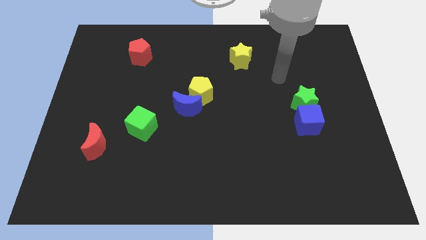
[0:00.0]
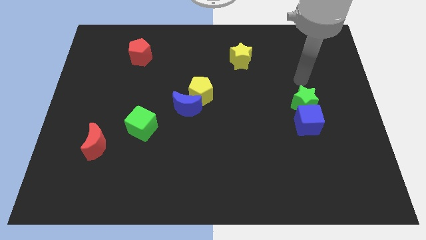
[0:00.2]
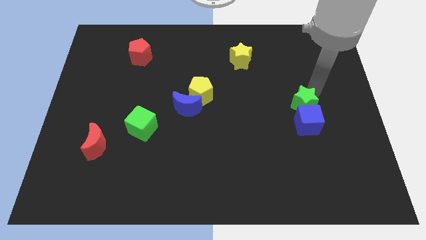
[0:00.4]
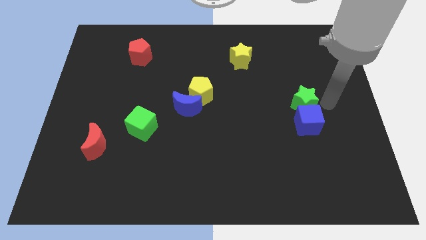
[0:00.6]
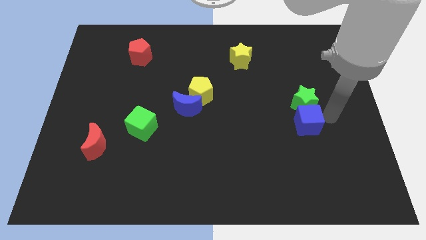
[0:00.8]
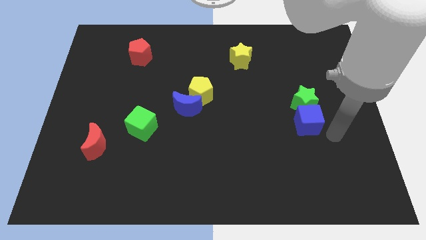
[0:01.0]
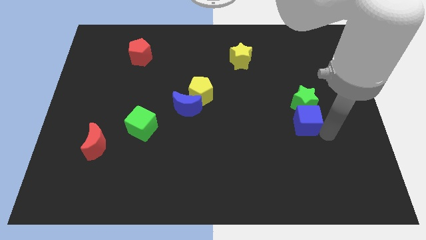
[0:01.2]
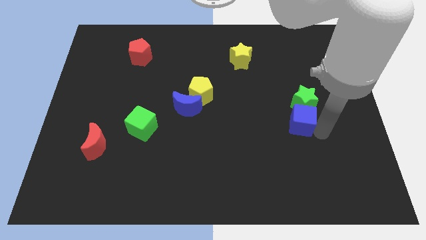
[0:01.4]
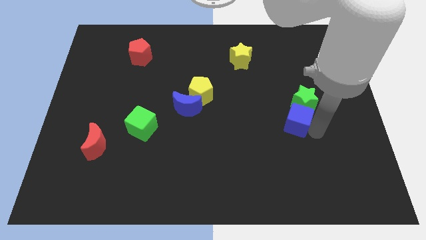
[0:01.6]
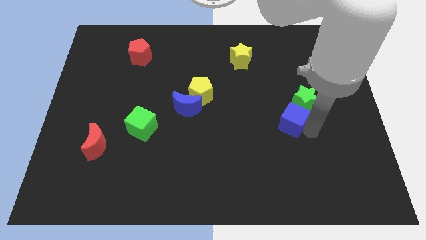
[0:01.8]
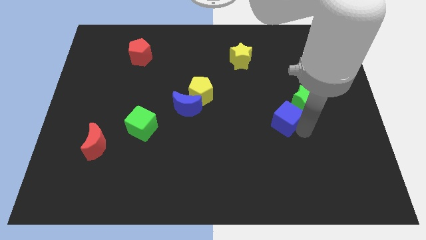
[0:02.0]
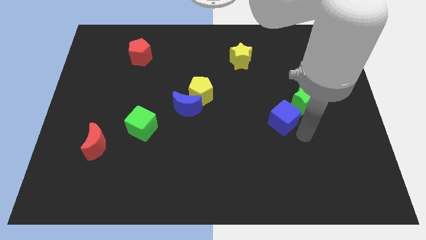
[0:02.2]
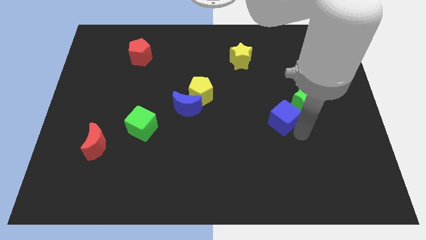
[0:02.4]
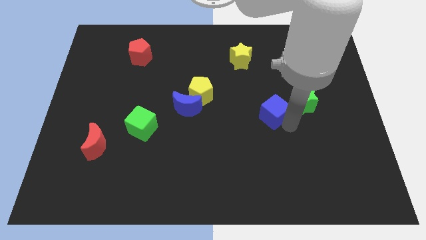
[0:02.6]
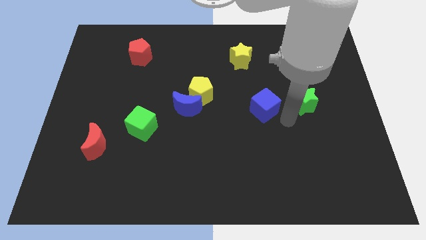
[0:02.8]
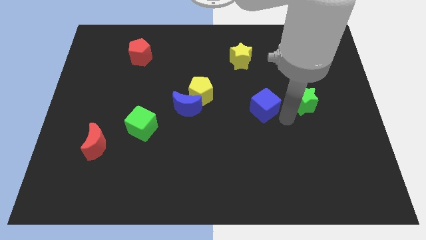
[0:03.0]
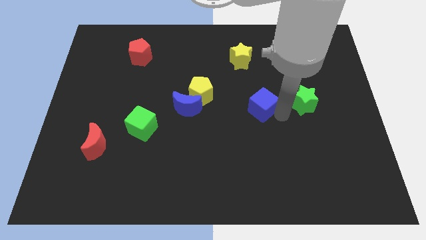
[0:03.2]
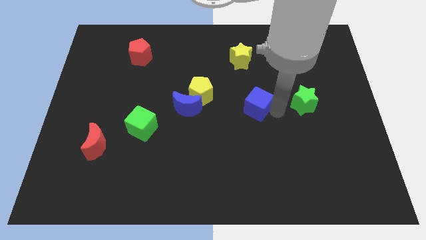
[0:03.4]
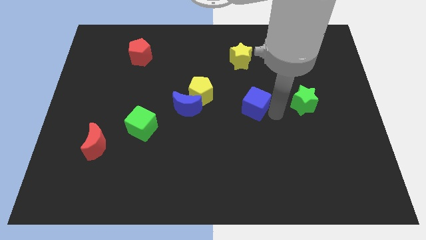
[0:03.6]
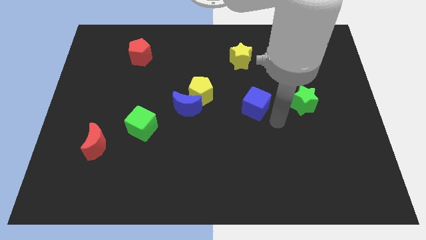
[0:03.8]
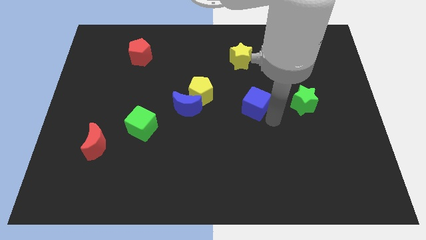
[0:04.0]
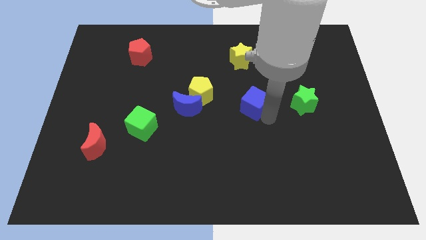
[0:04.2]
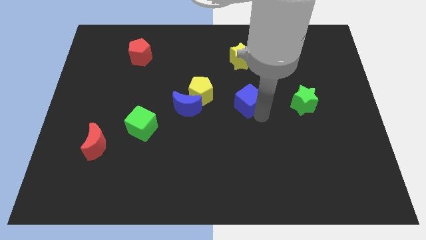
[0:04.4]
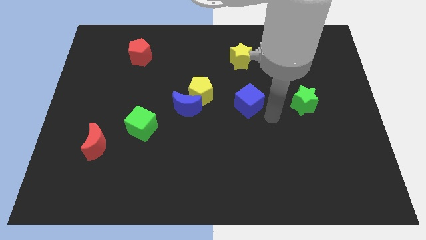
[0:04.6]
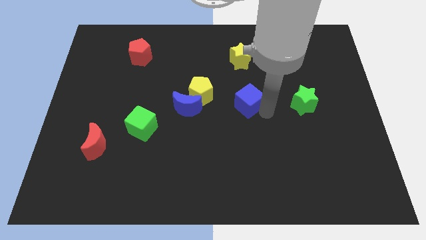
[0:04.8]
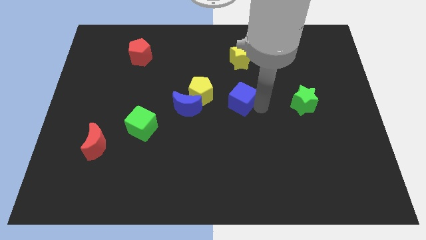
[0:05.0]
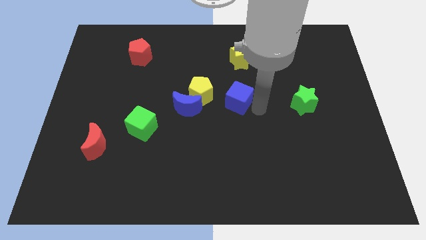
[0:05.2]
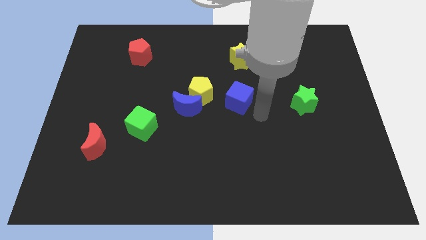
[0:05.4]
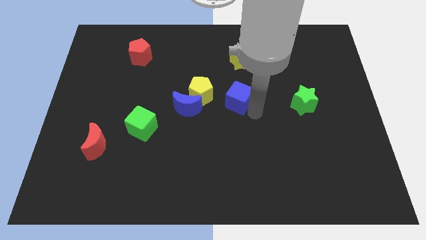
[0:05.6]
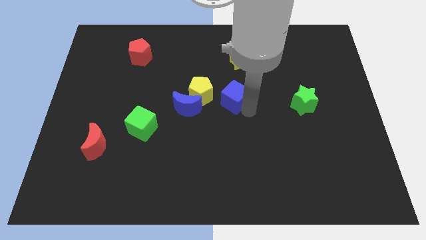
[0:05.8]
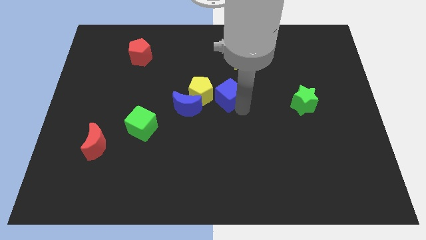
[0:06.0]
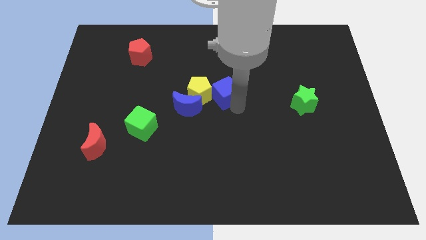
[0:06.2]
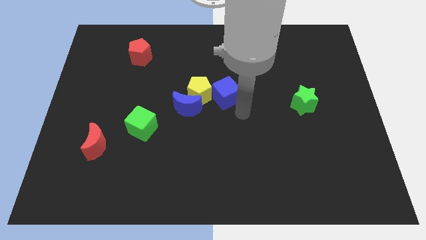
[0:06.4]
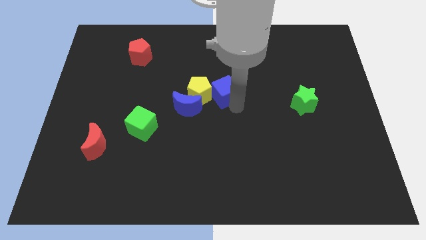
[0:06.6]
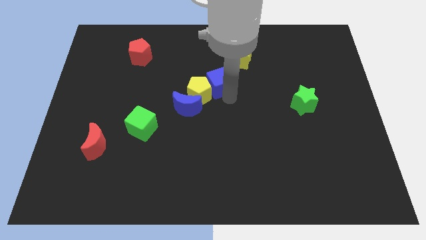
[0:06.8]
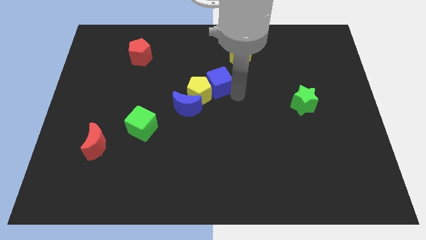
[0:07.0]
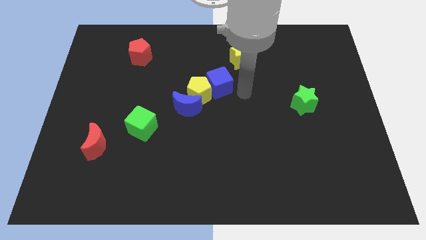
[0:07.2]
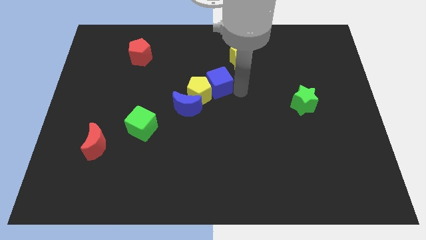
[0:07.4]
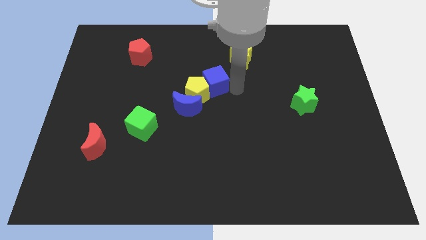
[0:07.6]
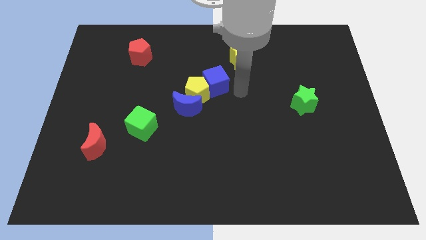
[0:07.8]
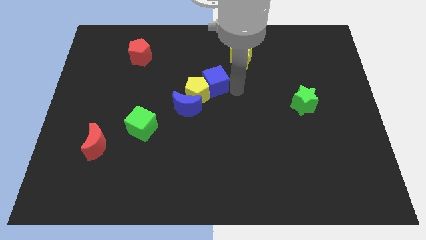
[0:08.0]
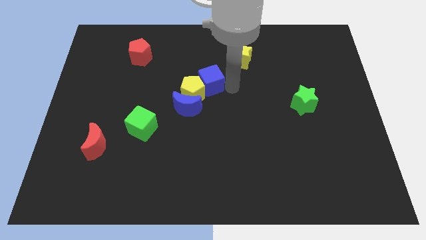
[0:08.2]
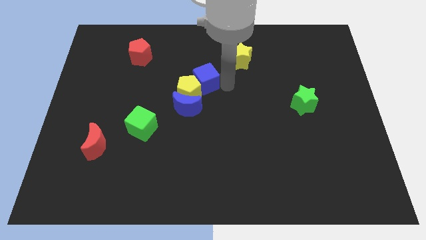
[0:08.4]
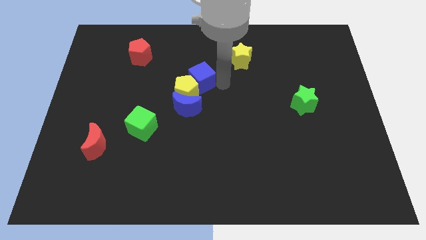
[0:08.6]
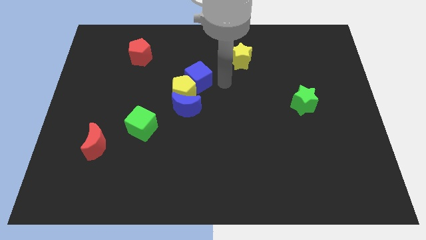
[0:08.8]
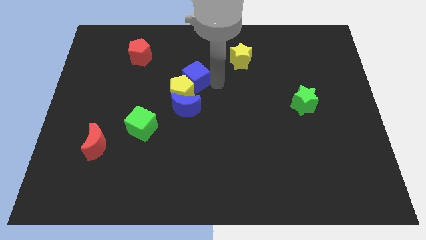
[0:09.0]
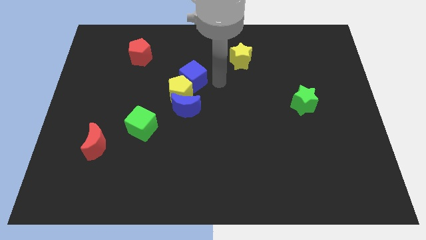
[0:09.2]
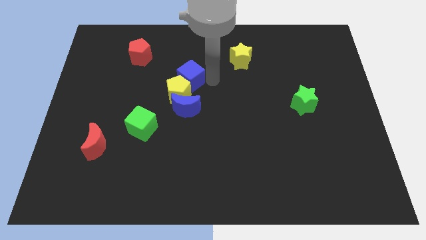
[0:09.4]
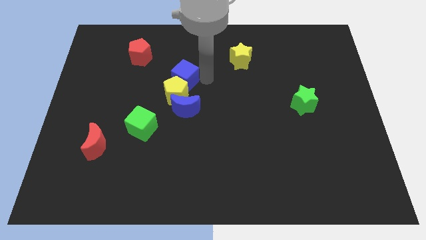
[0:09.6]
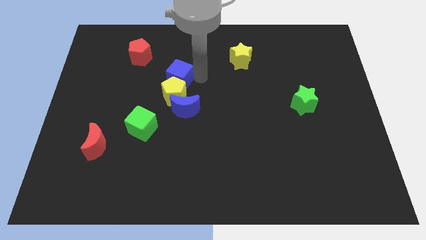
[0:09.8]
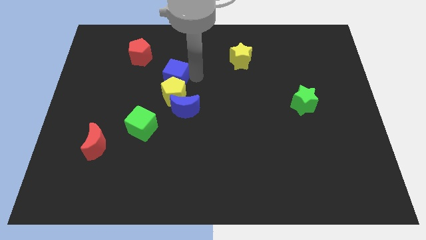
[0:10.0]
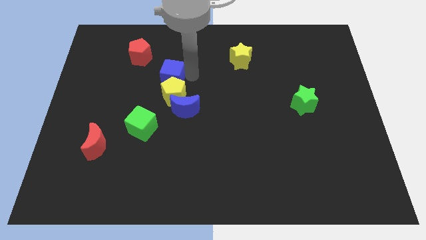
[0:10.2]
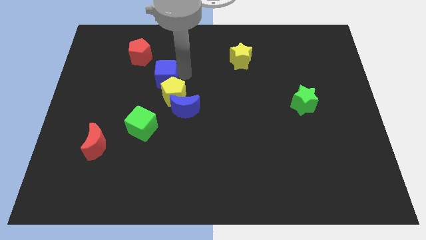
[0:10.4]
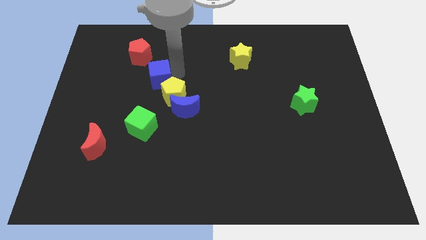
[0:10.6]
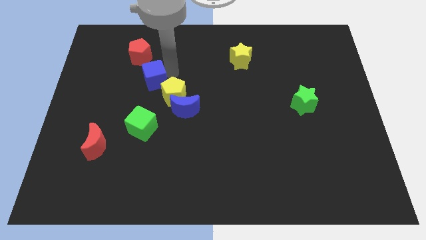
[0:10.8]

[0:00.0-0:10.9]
push the blue cube below the red pentagon

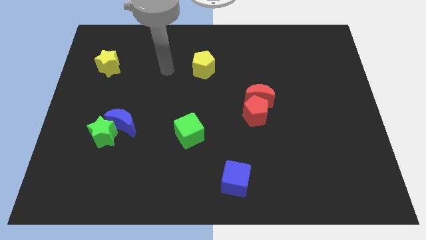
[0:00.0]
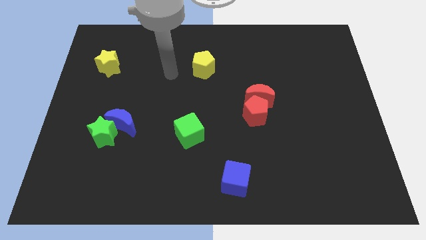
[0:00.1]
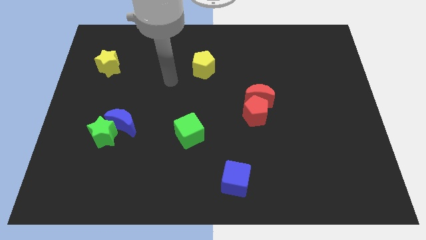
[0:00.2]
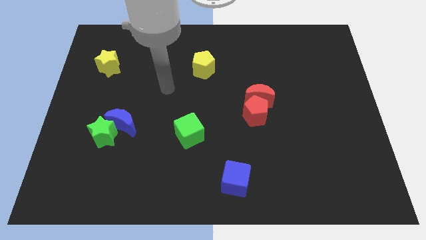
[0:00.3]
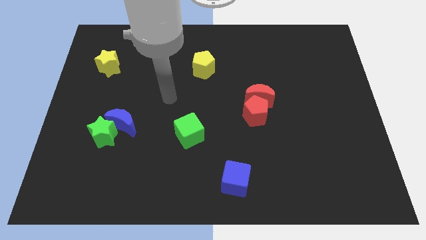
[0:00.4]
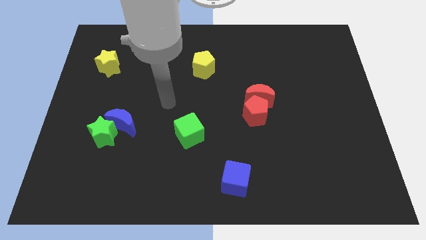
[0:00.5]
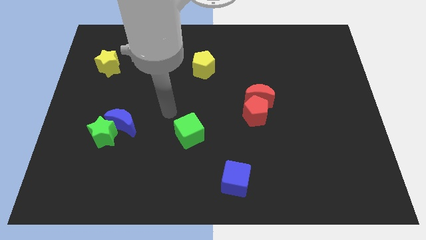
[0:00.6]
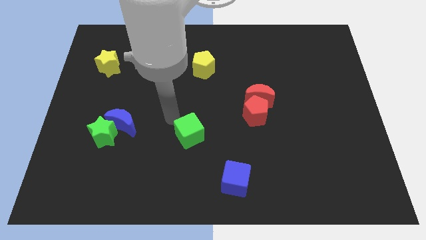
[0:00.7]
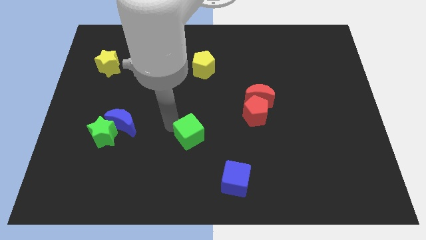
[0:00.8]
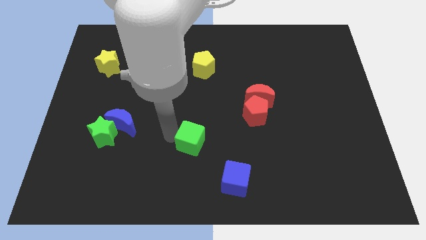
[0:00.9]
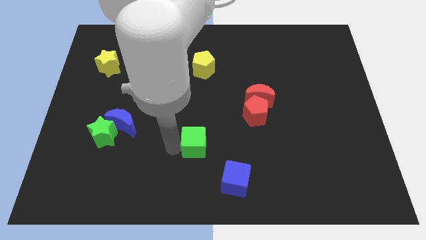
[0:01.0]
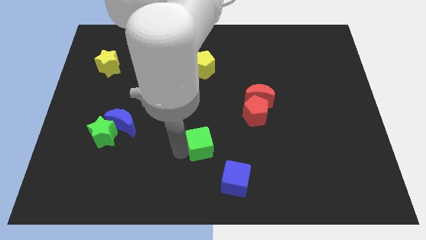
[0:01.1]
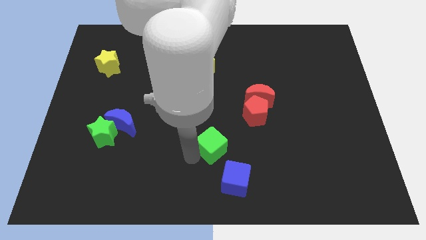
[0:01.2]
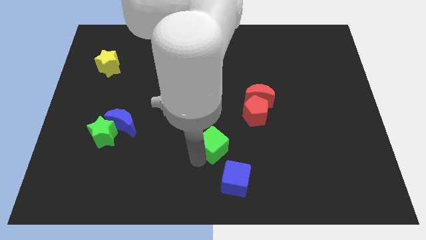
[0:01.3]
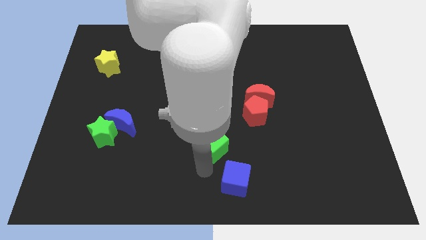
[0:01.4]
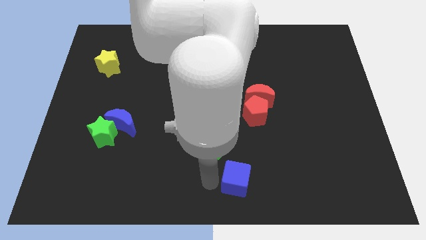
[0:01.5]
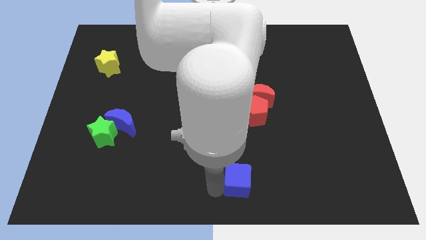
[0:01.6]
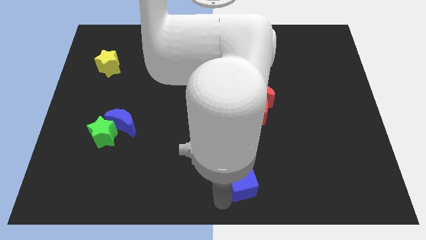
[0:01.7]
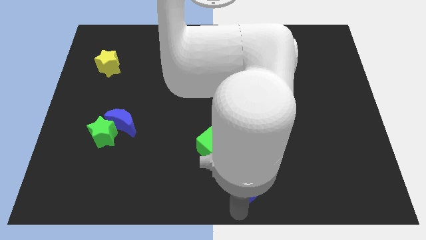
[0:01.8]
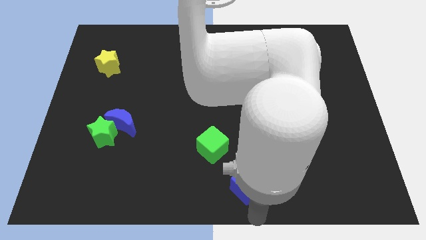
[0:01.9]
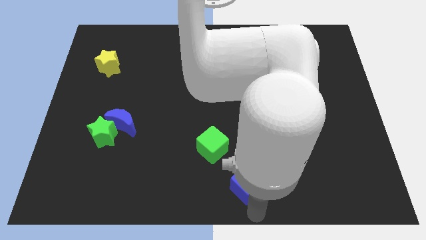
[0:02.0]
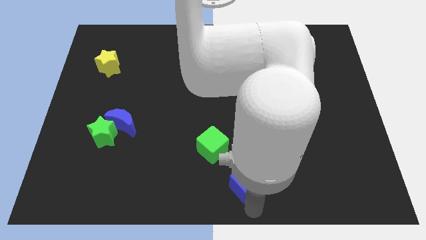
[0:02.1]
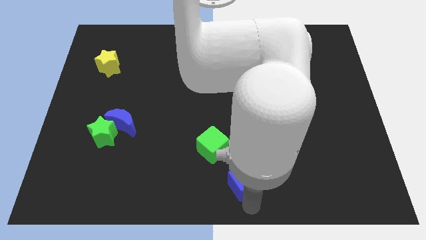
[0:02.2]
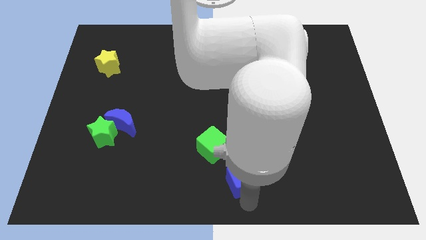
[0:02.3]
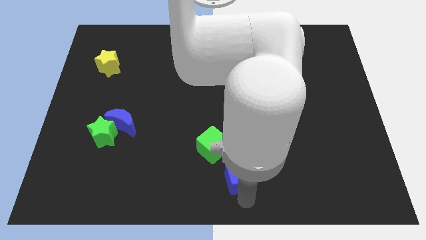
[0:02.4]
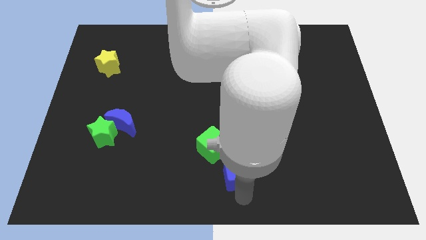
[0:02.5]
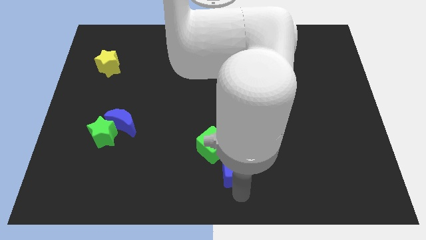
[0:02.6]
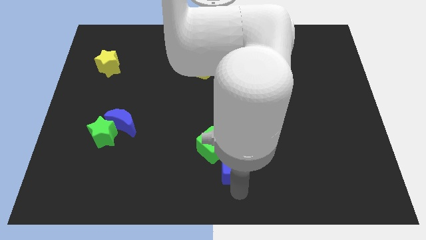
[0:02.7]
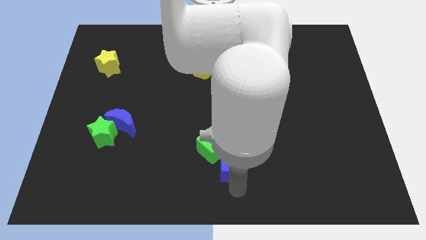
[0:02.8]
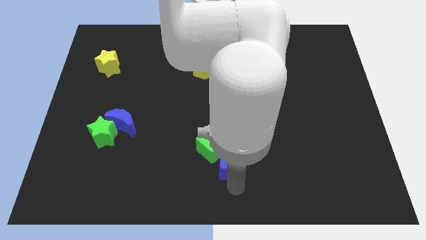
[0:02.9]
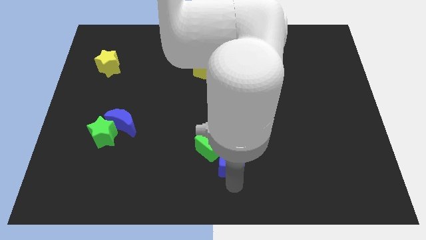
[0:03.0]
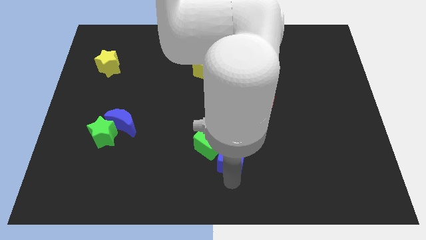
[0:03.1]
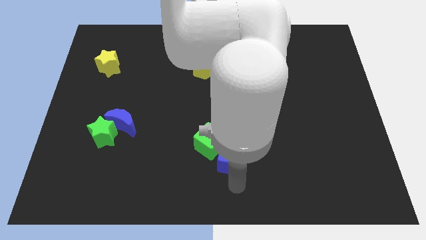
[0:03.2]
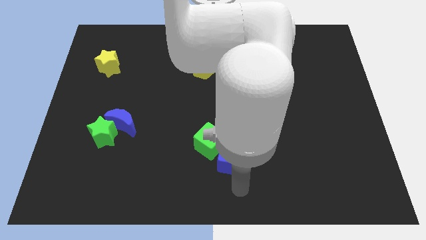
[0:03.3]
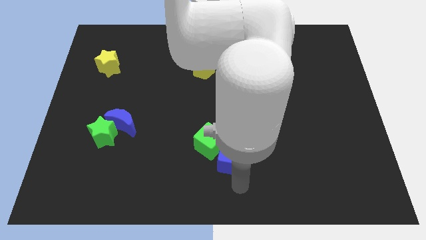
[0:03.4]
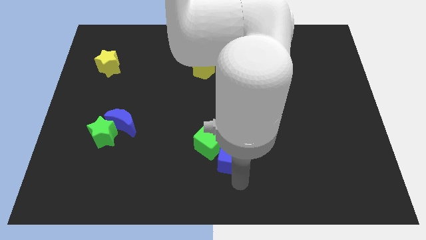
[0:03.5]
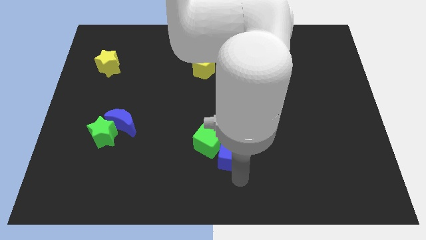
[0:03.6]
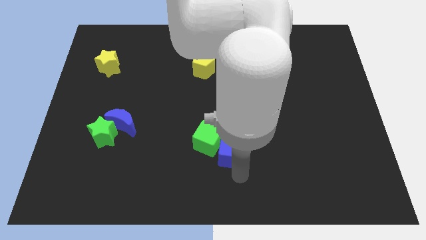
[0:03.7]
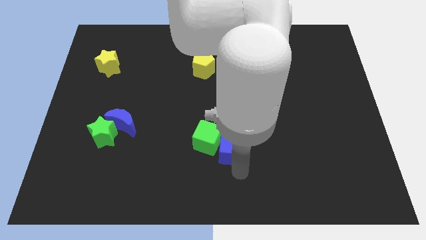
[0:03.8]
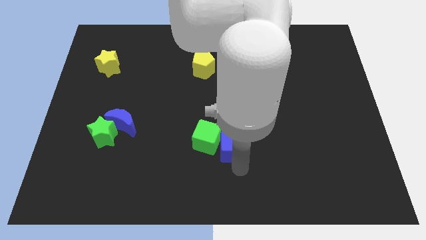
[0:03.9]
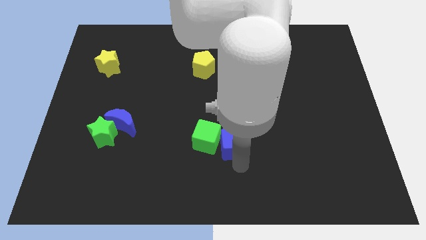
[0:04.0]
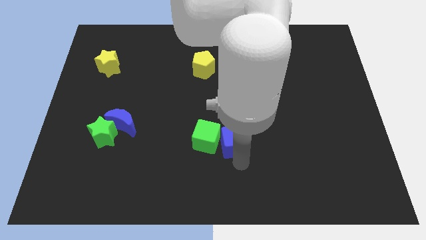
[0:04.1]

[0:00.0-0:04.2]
move the blue cube diagonally up and to the right of the green cube
